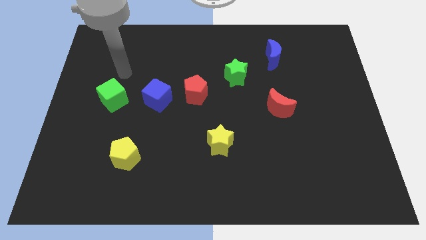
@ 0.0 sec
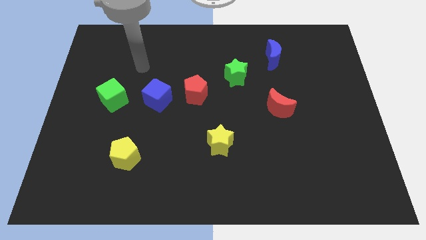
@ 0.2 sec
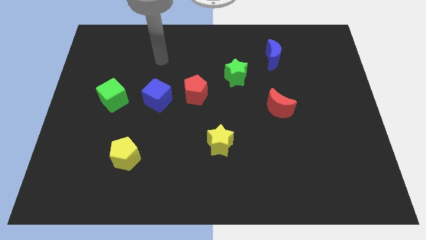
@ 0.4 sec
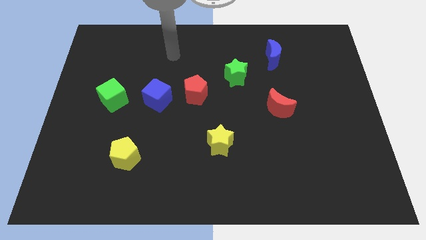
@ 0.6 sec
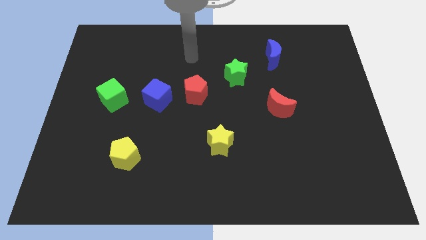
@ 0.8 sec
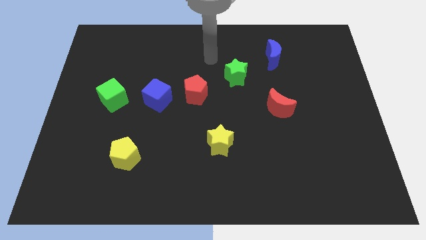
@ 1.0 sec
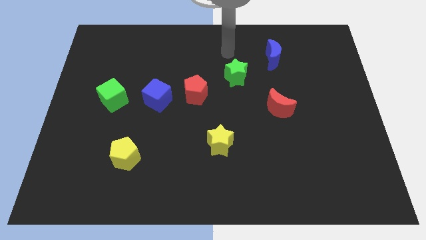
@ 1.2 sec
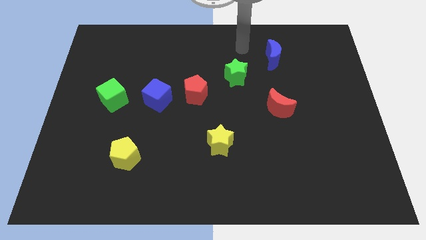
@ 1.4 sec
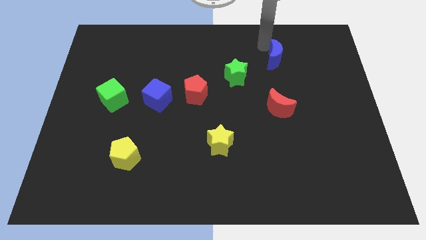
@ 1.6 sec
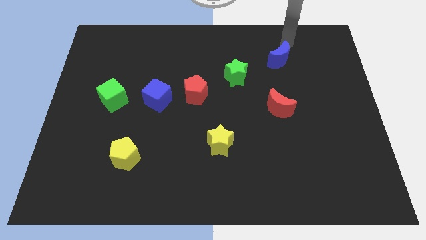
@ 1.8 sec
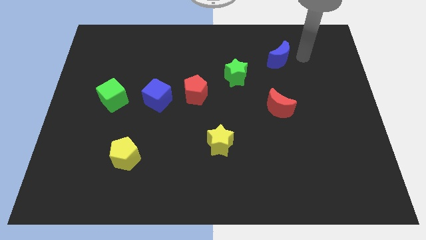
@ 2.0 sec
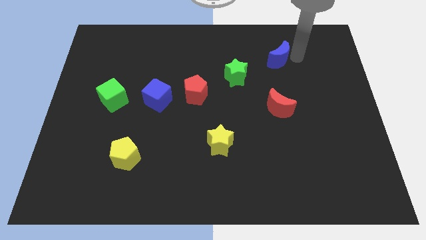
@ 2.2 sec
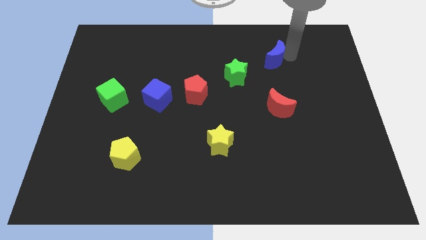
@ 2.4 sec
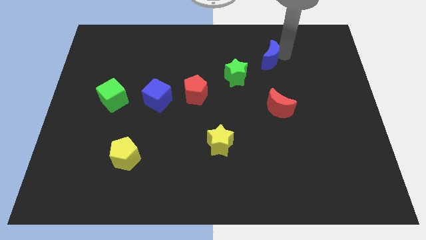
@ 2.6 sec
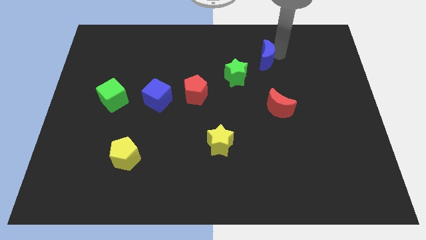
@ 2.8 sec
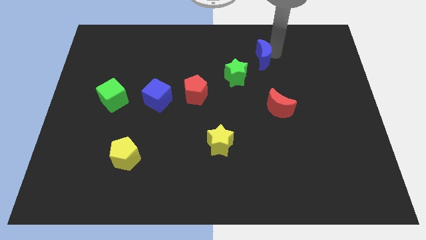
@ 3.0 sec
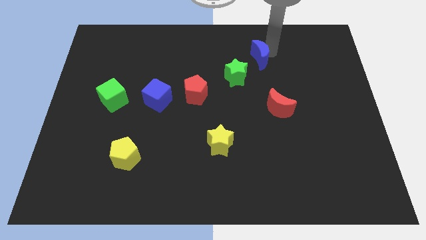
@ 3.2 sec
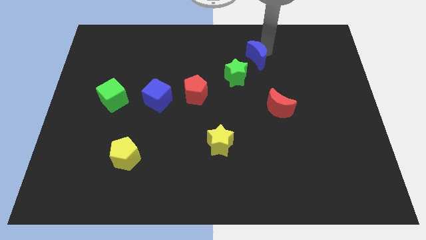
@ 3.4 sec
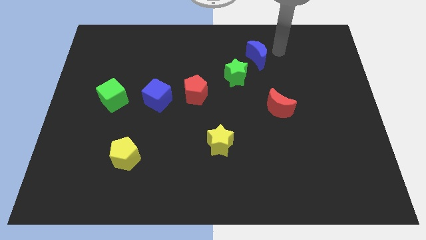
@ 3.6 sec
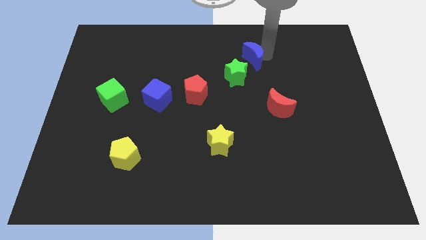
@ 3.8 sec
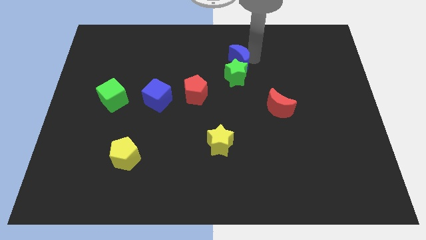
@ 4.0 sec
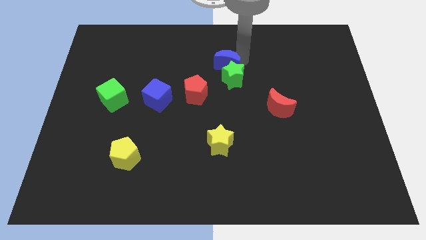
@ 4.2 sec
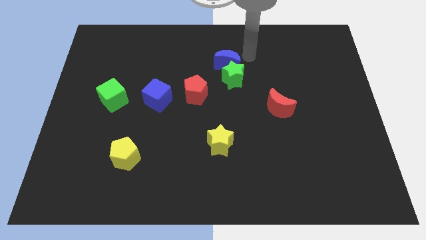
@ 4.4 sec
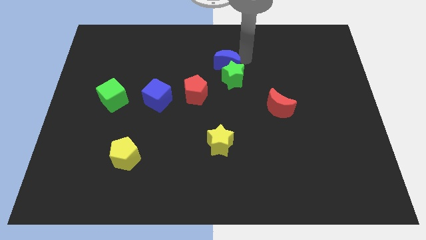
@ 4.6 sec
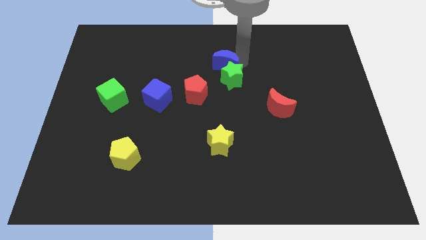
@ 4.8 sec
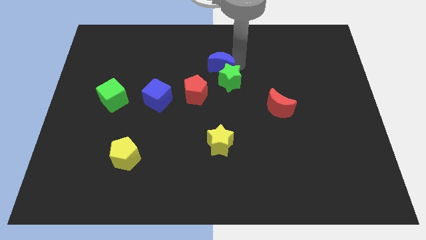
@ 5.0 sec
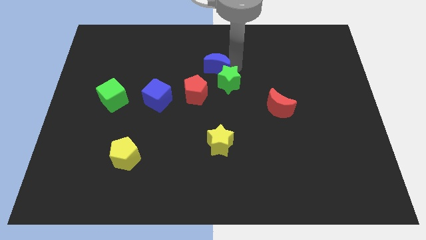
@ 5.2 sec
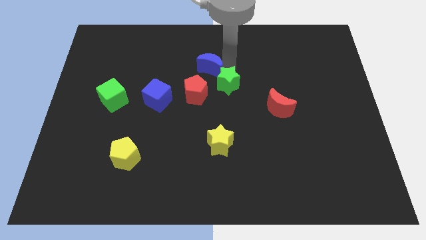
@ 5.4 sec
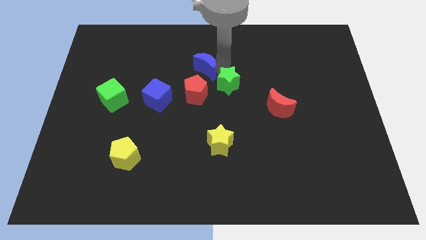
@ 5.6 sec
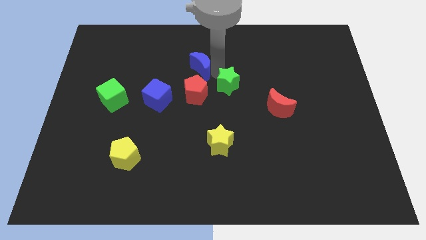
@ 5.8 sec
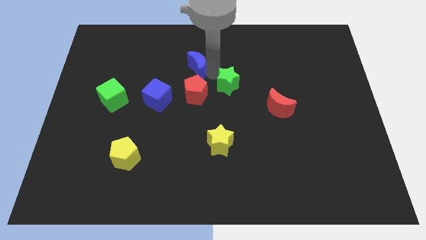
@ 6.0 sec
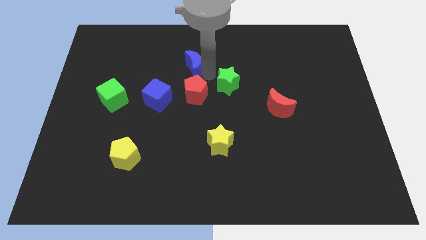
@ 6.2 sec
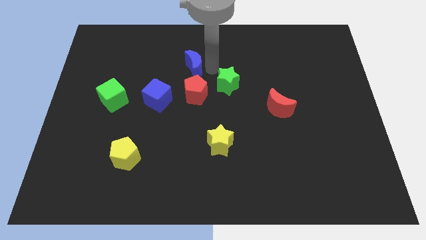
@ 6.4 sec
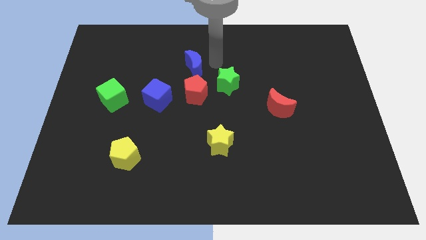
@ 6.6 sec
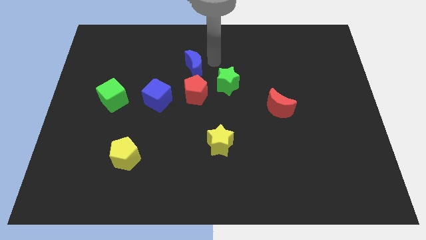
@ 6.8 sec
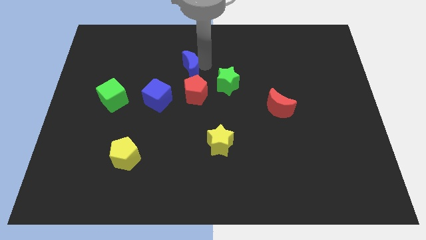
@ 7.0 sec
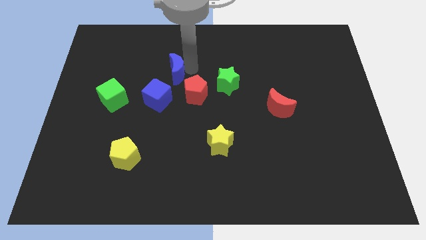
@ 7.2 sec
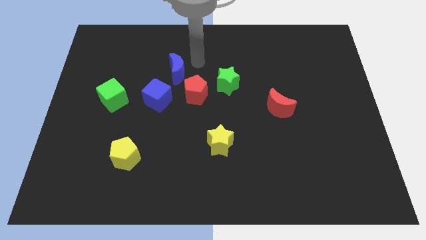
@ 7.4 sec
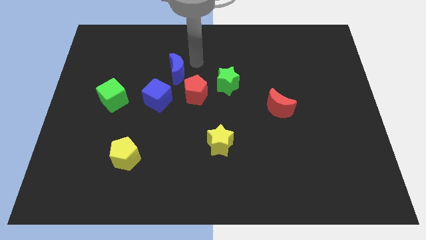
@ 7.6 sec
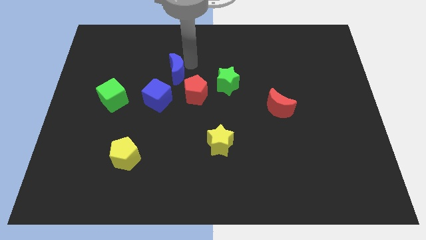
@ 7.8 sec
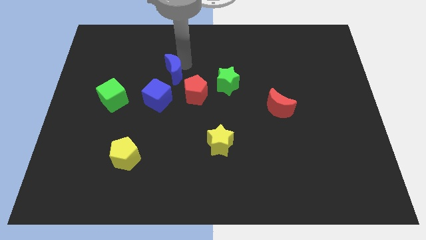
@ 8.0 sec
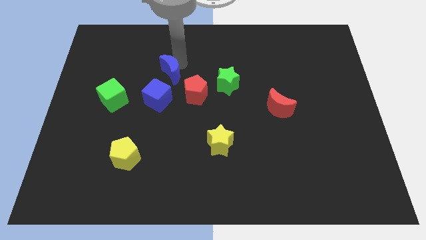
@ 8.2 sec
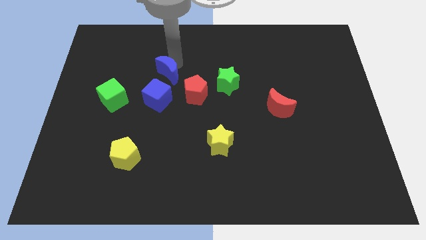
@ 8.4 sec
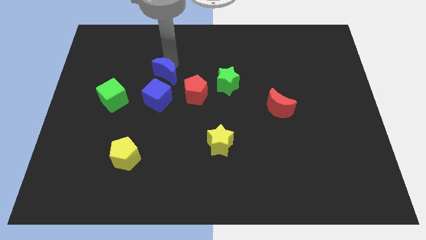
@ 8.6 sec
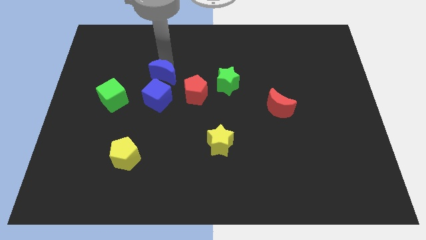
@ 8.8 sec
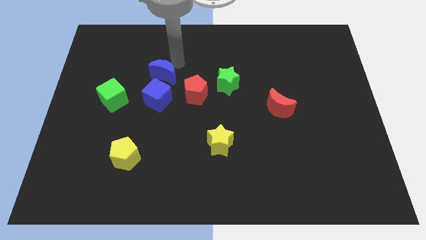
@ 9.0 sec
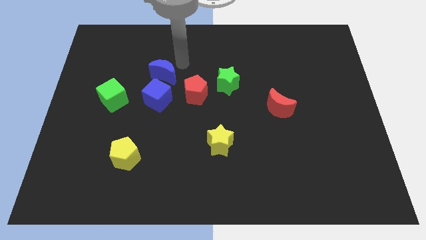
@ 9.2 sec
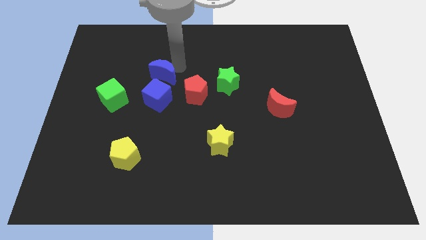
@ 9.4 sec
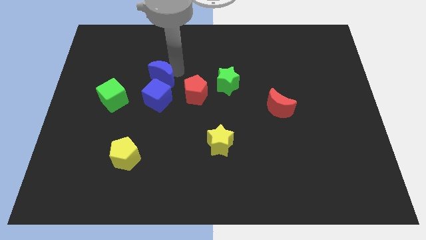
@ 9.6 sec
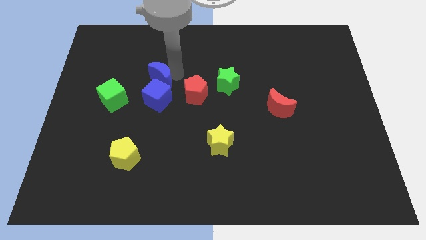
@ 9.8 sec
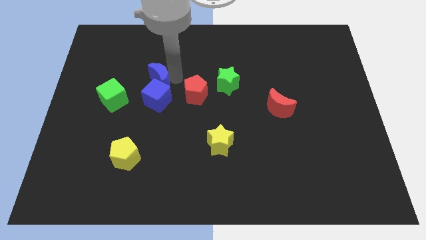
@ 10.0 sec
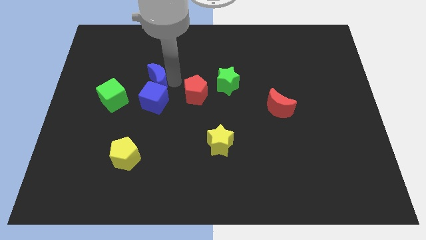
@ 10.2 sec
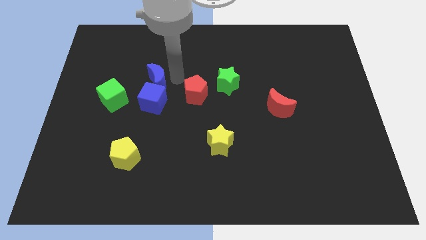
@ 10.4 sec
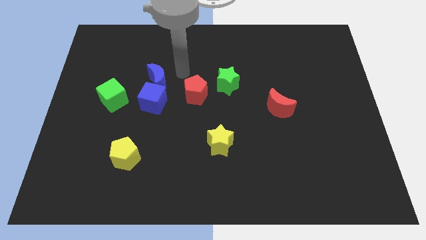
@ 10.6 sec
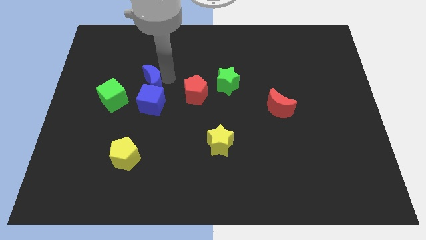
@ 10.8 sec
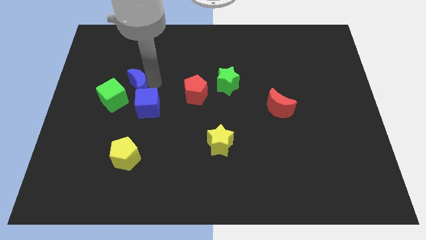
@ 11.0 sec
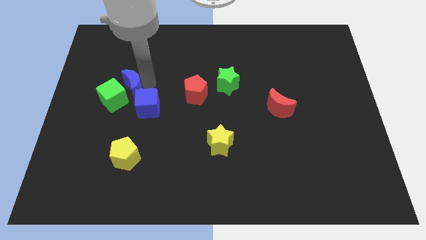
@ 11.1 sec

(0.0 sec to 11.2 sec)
move the blue moon towards the green cube

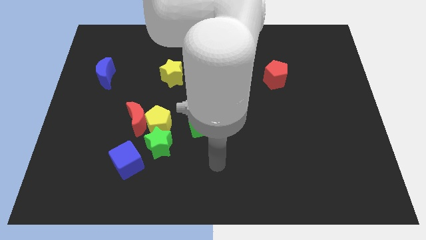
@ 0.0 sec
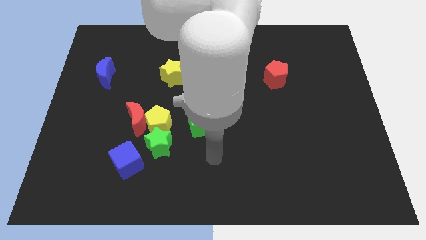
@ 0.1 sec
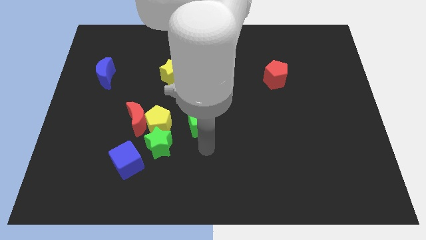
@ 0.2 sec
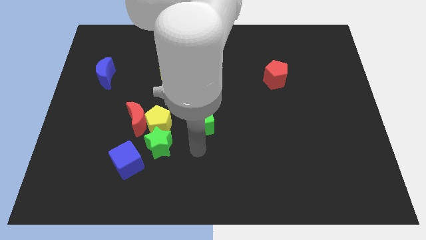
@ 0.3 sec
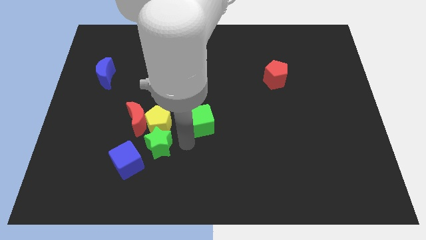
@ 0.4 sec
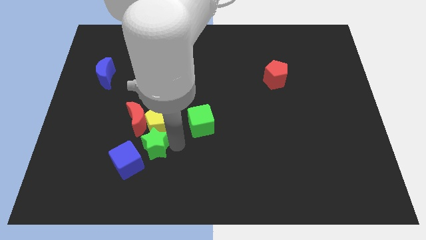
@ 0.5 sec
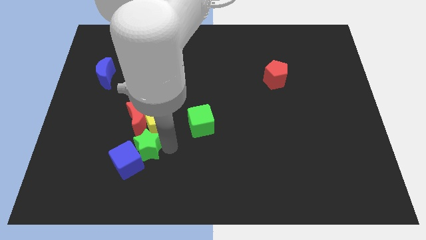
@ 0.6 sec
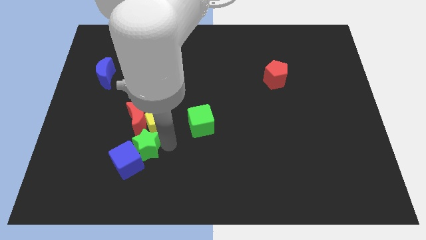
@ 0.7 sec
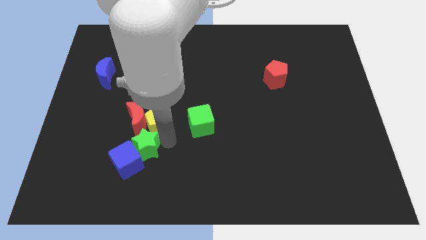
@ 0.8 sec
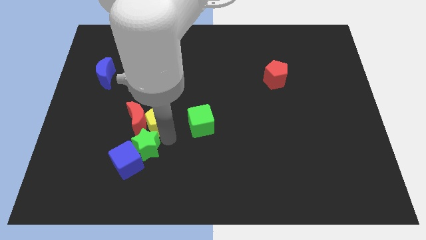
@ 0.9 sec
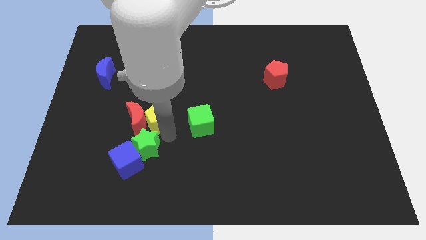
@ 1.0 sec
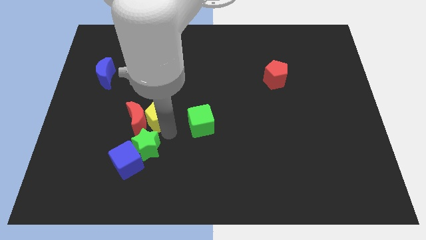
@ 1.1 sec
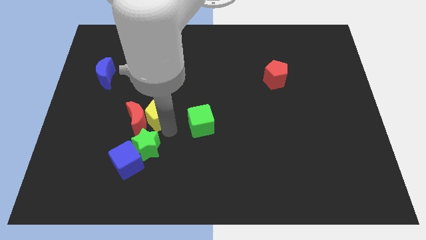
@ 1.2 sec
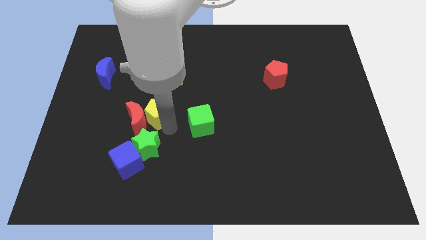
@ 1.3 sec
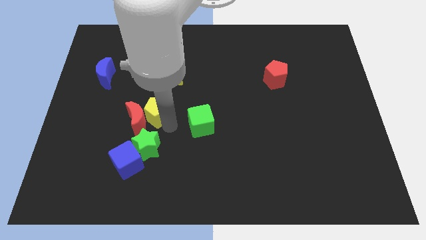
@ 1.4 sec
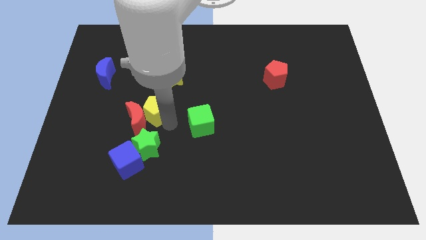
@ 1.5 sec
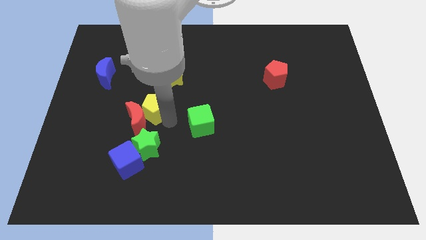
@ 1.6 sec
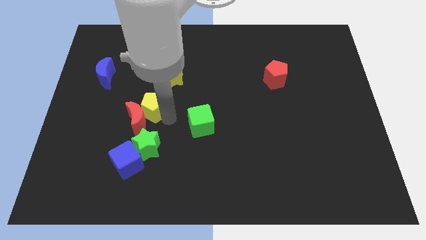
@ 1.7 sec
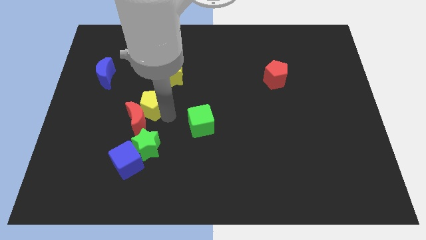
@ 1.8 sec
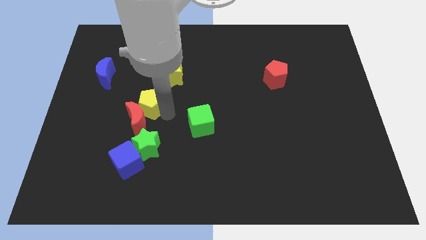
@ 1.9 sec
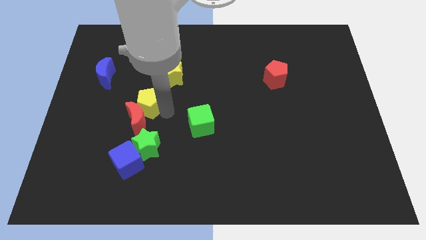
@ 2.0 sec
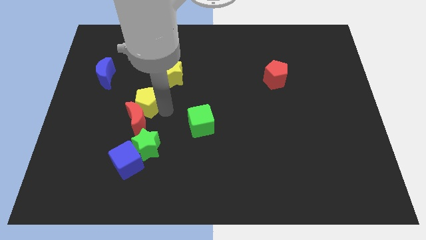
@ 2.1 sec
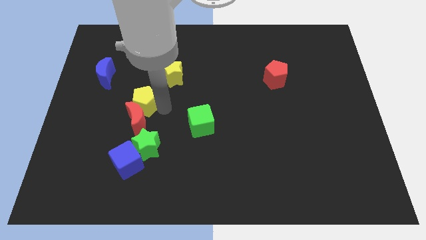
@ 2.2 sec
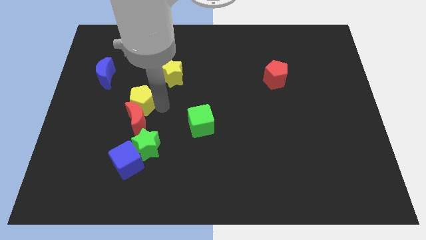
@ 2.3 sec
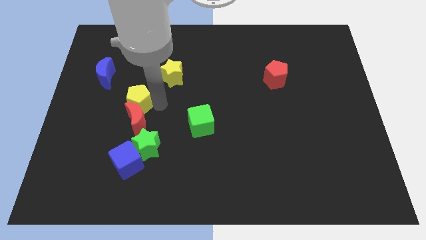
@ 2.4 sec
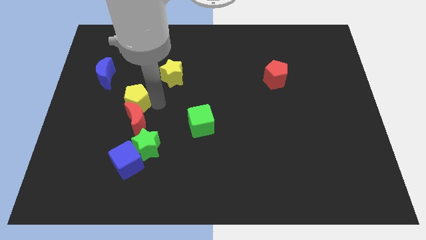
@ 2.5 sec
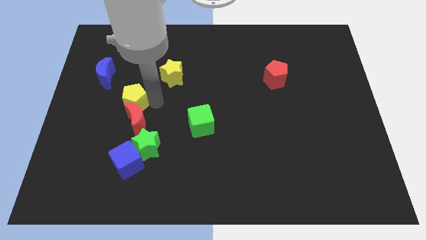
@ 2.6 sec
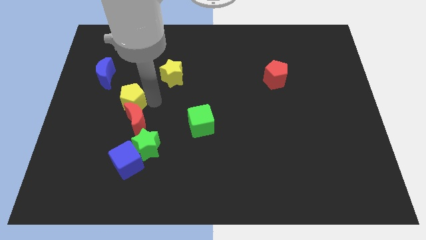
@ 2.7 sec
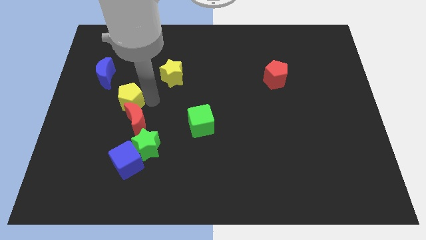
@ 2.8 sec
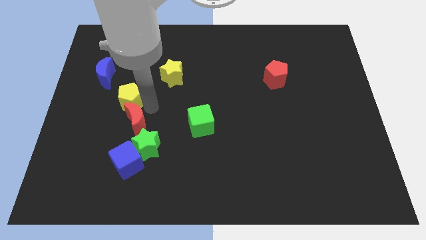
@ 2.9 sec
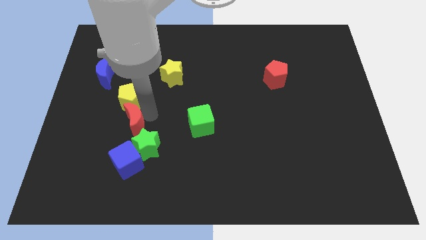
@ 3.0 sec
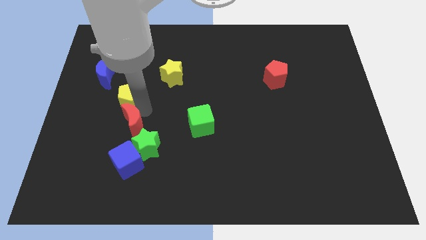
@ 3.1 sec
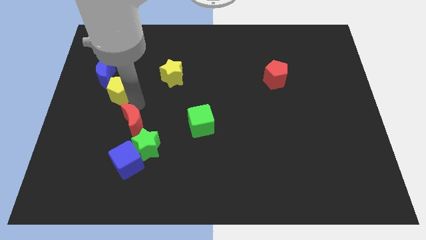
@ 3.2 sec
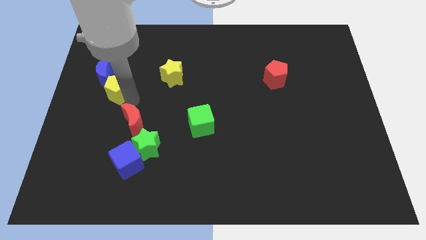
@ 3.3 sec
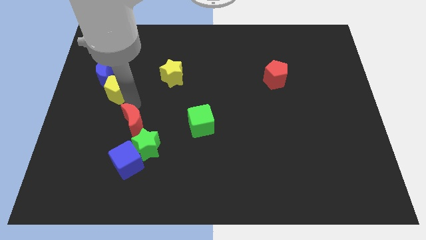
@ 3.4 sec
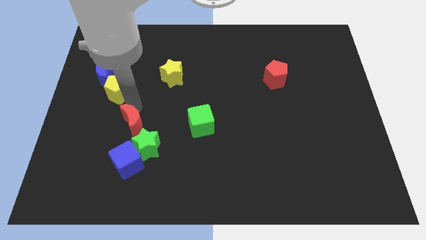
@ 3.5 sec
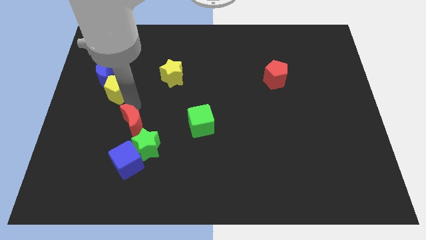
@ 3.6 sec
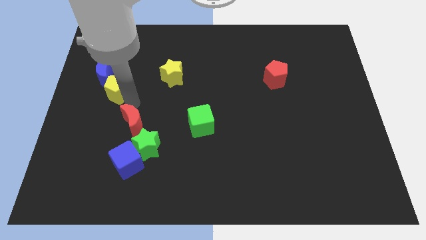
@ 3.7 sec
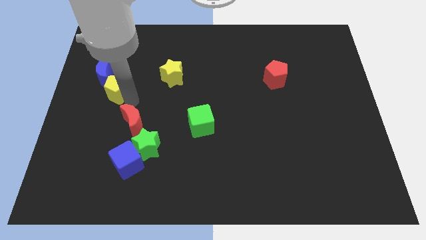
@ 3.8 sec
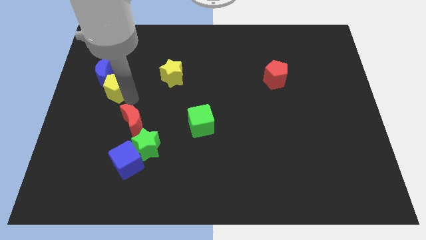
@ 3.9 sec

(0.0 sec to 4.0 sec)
move the yellow pentagon next to the blue moon
